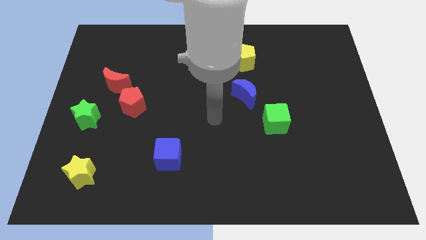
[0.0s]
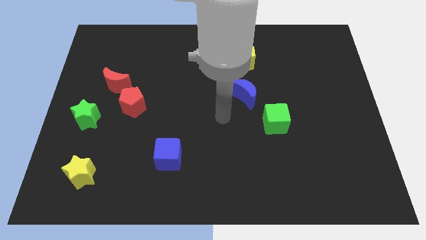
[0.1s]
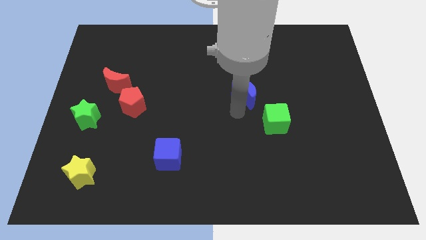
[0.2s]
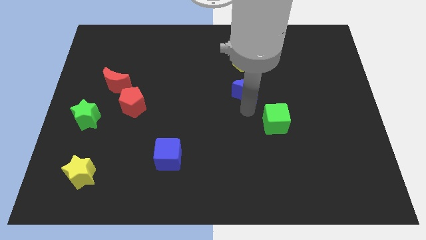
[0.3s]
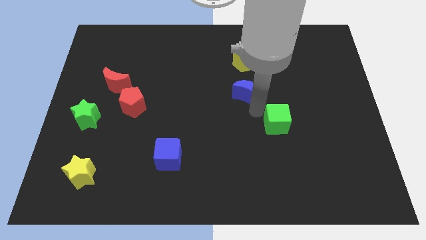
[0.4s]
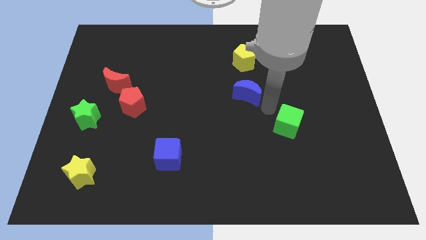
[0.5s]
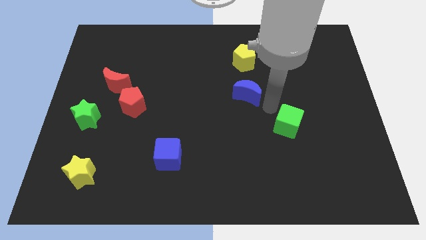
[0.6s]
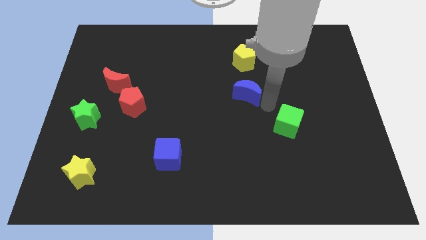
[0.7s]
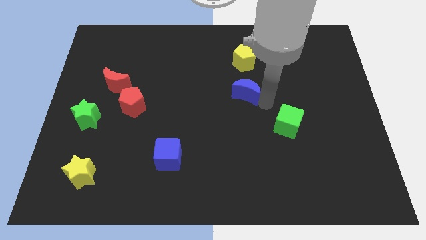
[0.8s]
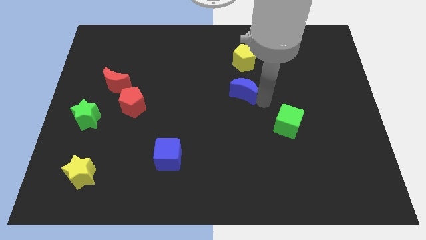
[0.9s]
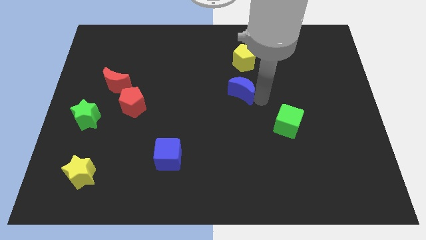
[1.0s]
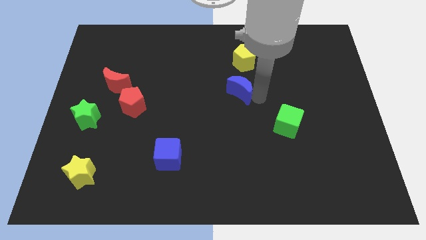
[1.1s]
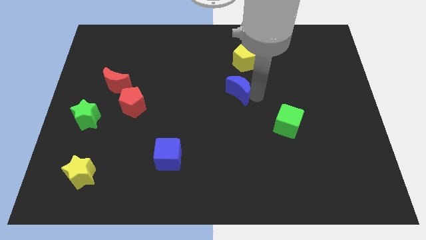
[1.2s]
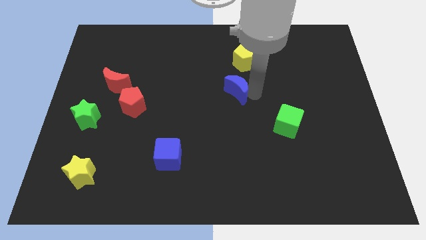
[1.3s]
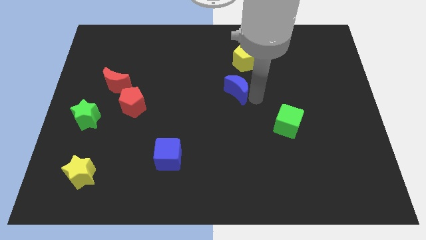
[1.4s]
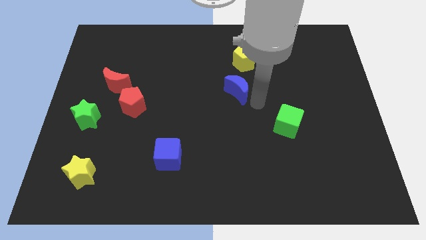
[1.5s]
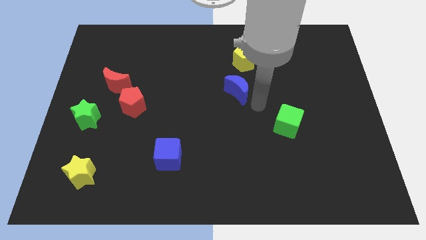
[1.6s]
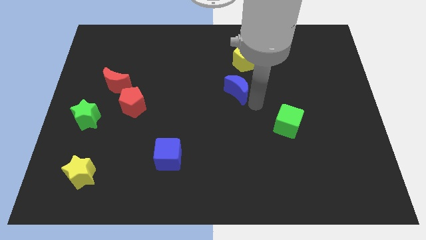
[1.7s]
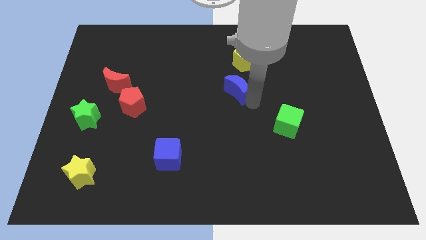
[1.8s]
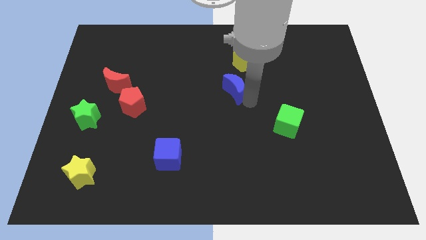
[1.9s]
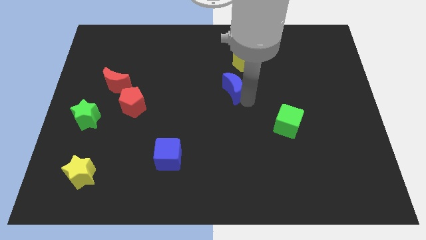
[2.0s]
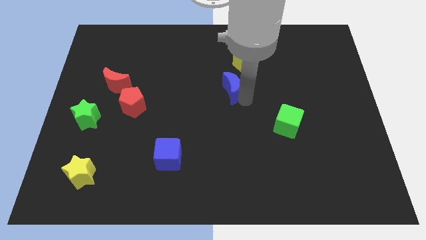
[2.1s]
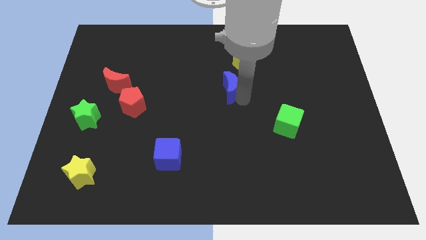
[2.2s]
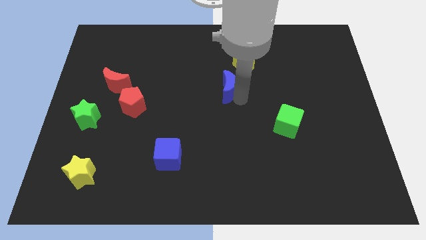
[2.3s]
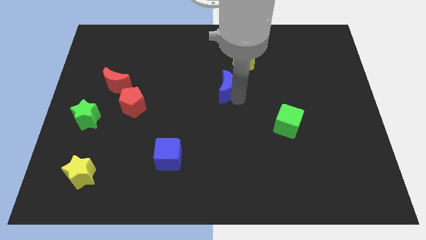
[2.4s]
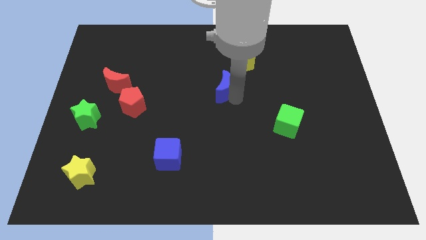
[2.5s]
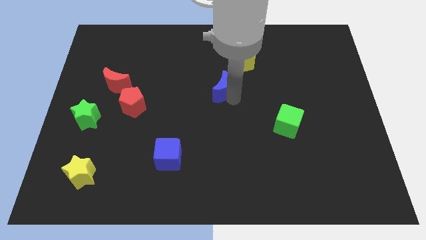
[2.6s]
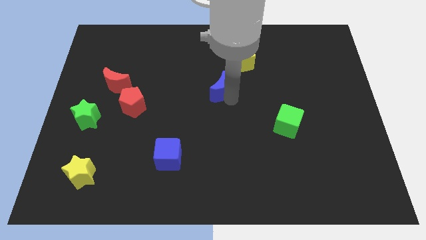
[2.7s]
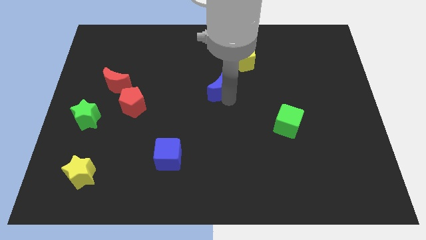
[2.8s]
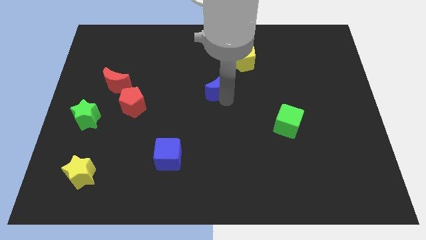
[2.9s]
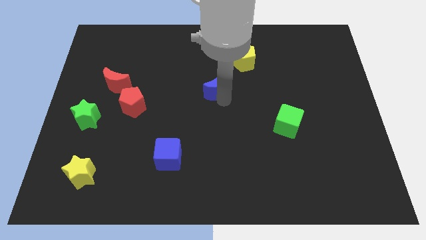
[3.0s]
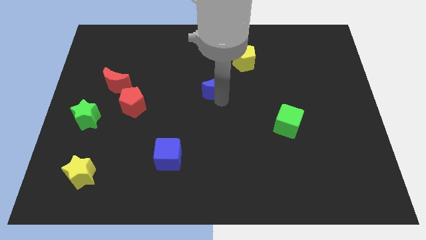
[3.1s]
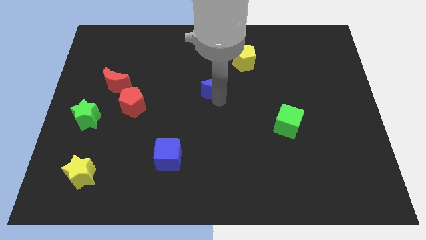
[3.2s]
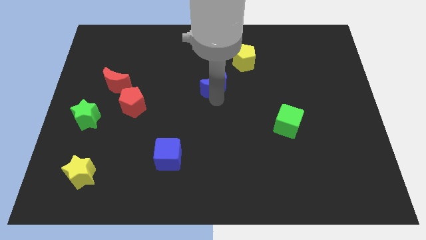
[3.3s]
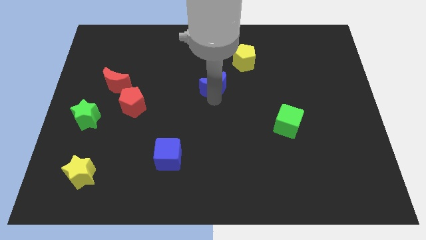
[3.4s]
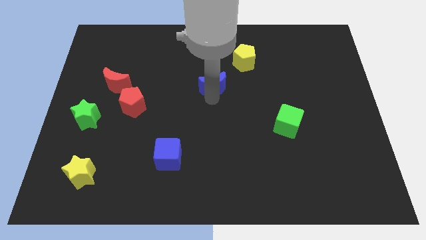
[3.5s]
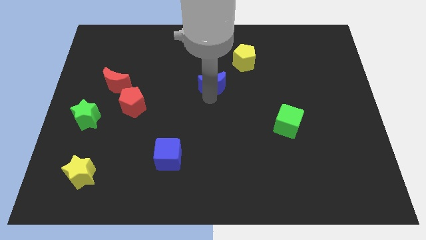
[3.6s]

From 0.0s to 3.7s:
push the blue moon somewhat up and left

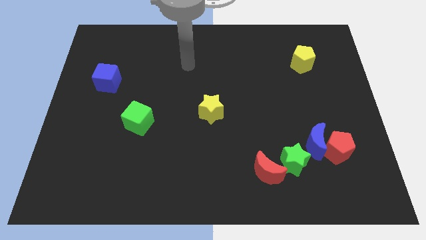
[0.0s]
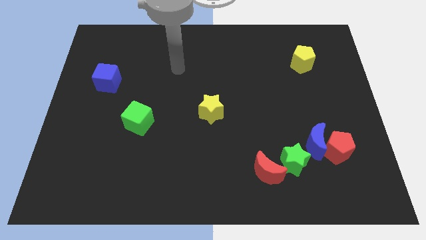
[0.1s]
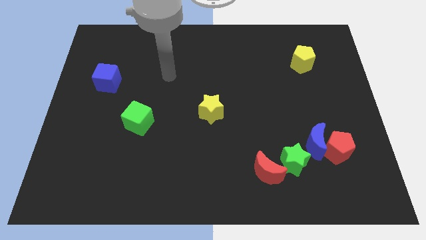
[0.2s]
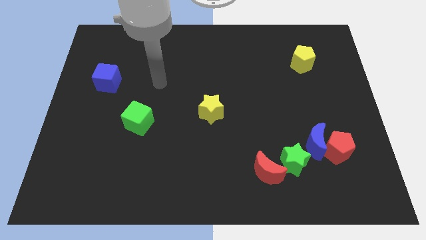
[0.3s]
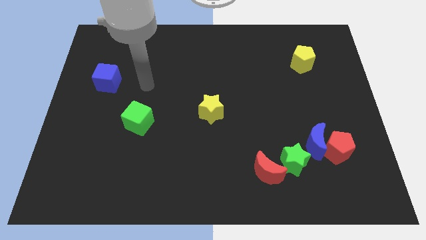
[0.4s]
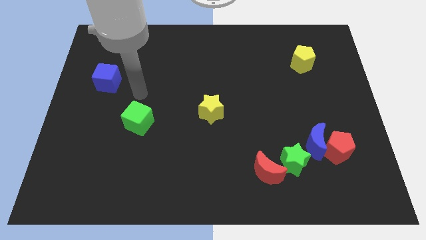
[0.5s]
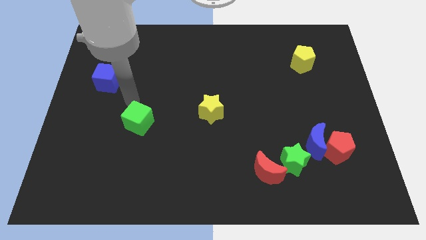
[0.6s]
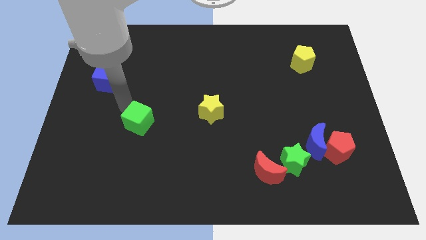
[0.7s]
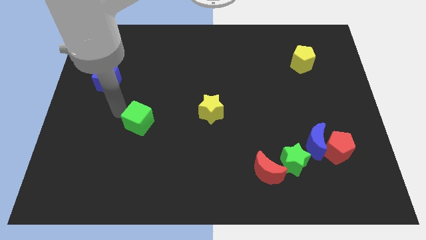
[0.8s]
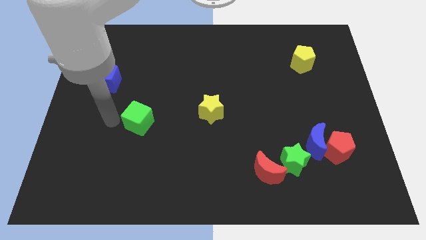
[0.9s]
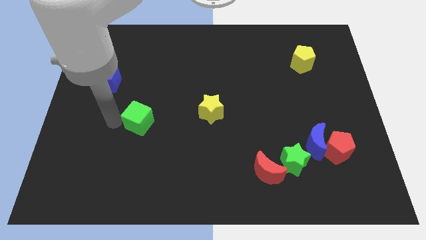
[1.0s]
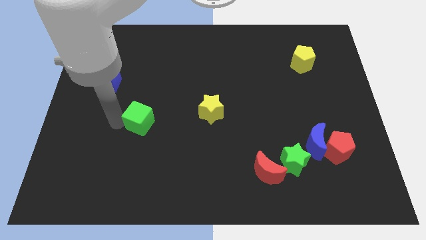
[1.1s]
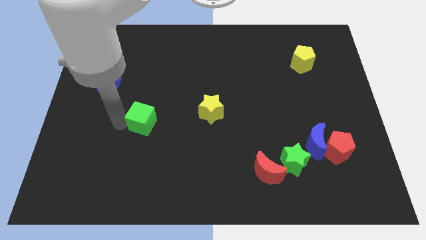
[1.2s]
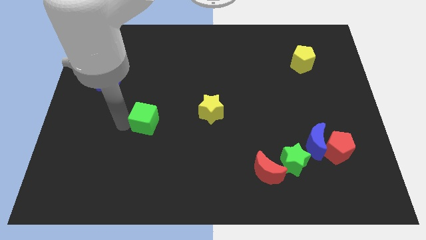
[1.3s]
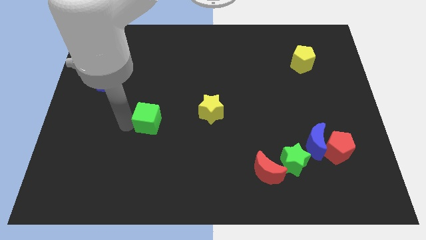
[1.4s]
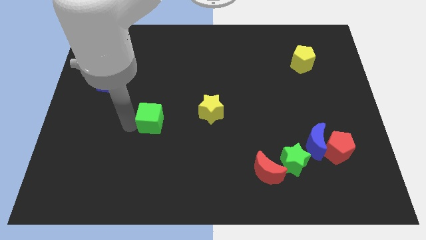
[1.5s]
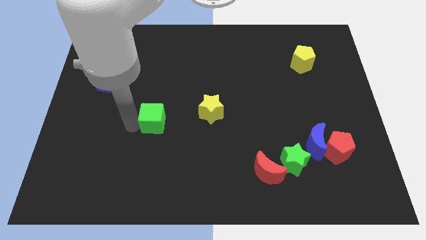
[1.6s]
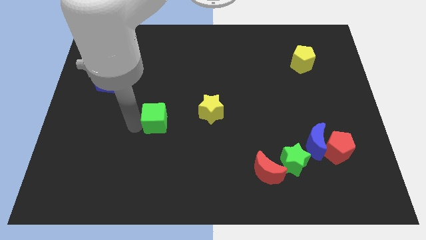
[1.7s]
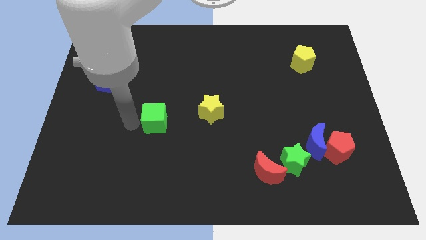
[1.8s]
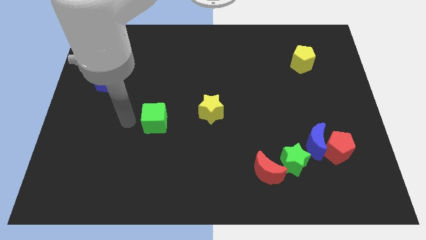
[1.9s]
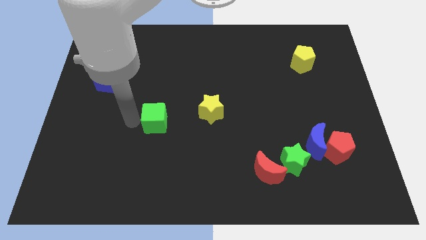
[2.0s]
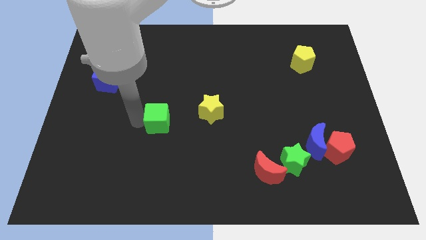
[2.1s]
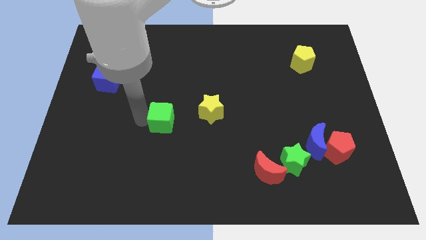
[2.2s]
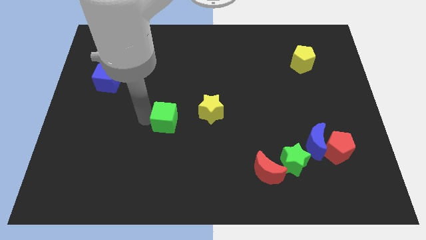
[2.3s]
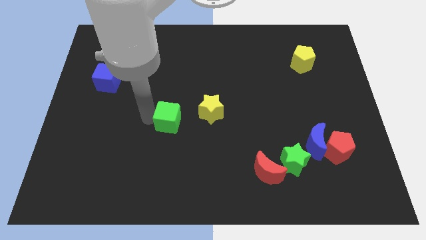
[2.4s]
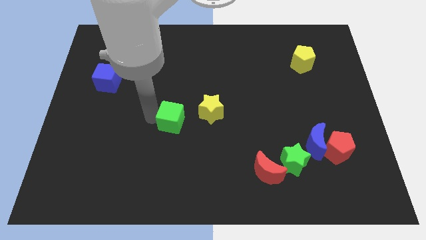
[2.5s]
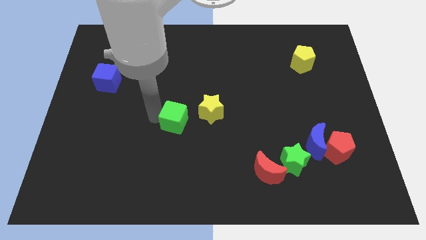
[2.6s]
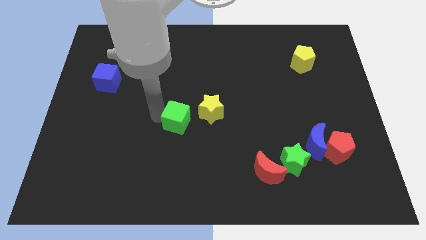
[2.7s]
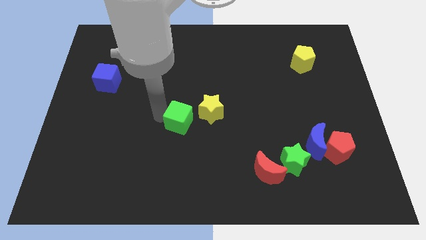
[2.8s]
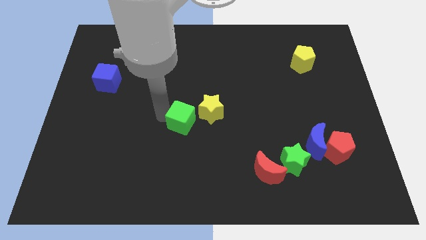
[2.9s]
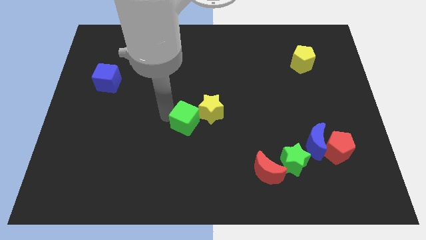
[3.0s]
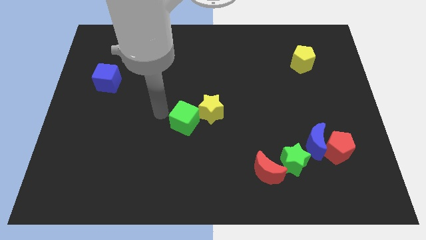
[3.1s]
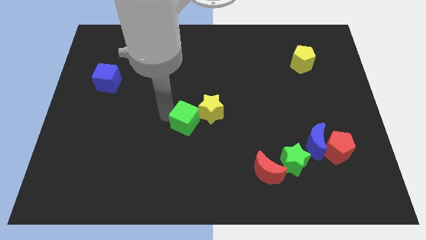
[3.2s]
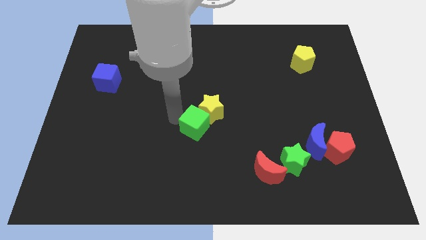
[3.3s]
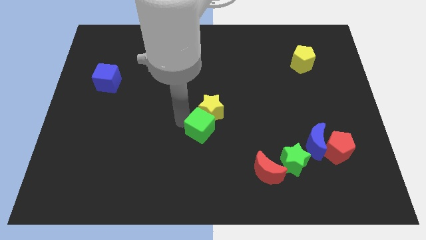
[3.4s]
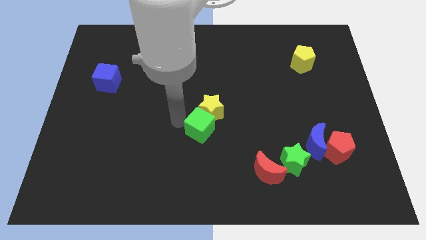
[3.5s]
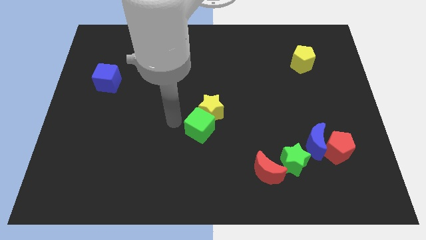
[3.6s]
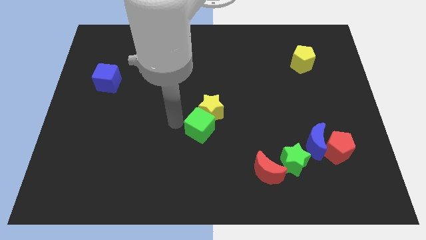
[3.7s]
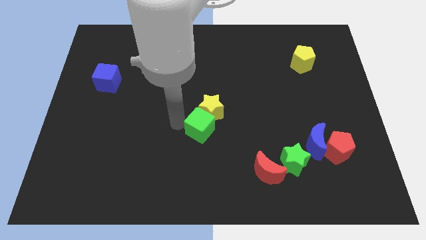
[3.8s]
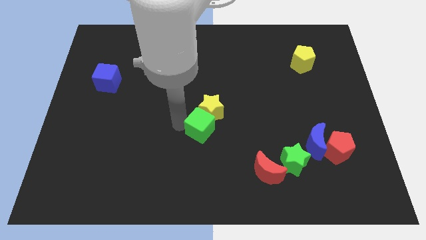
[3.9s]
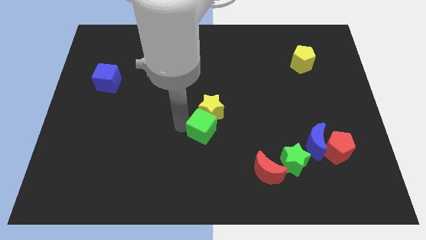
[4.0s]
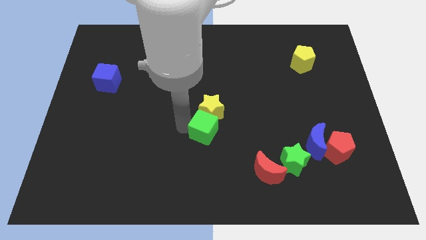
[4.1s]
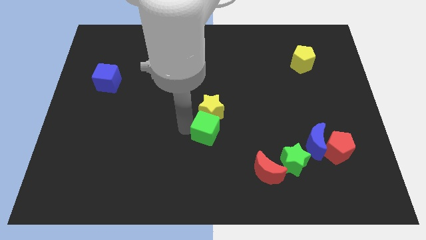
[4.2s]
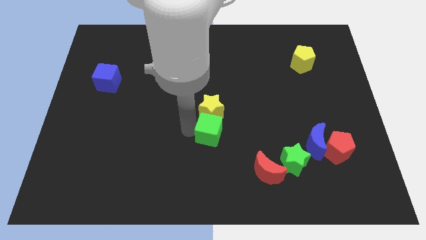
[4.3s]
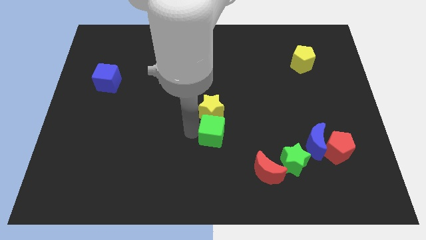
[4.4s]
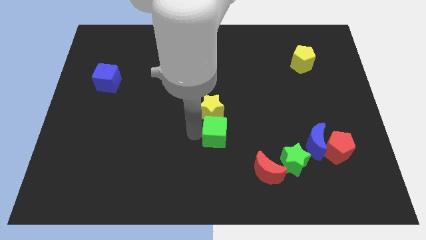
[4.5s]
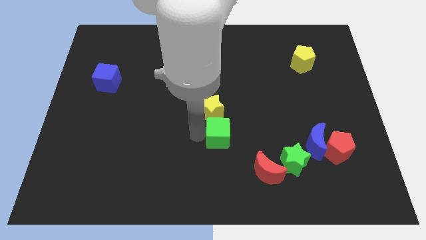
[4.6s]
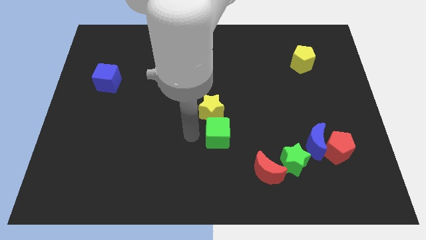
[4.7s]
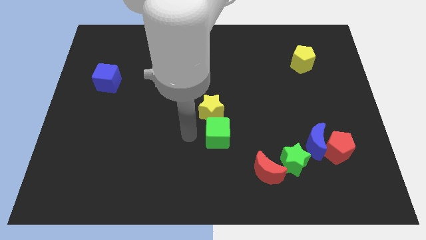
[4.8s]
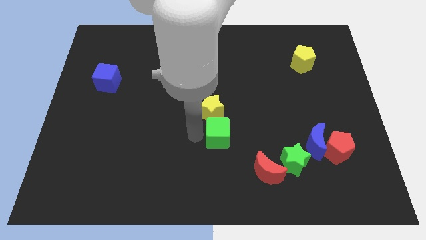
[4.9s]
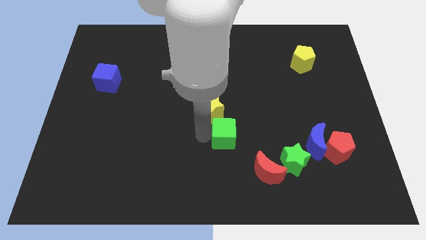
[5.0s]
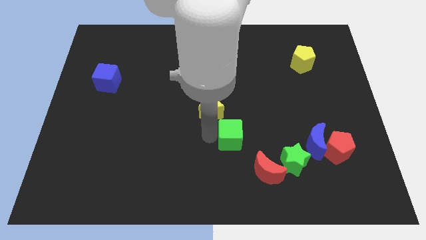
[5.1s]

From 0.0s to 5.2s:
move the green cube to the right
